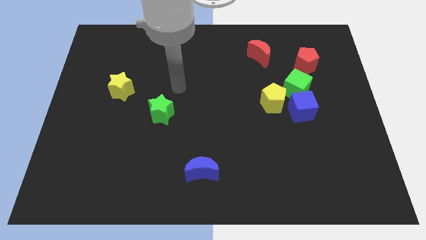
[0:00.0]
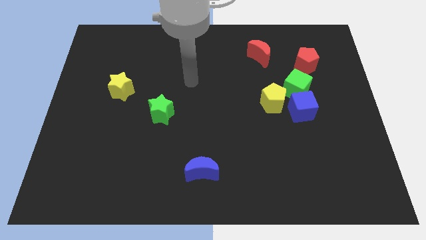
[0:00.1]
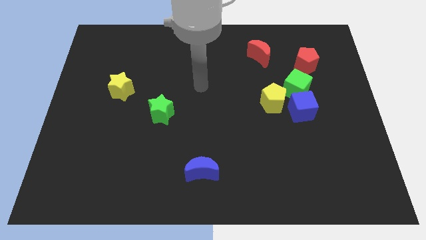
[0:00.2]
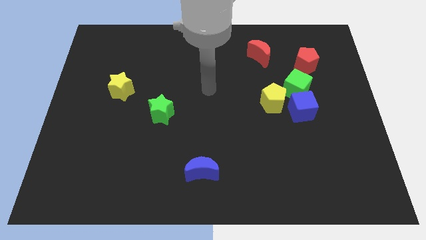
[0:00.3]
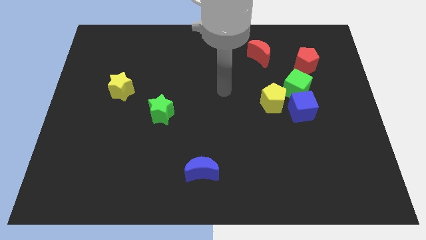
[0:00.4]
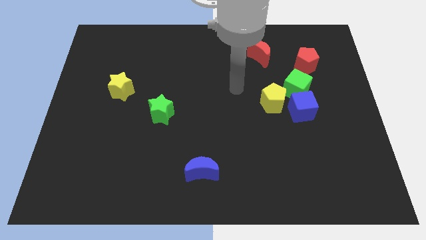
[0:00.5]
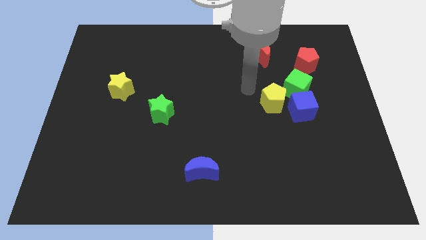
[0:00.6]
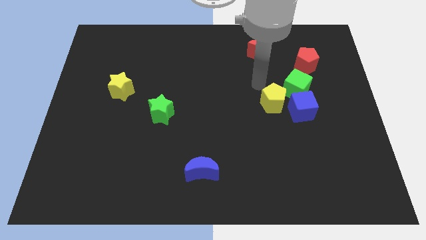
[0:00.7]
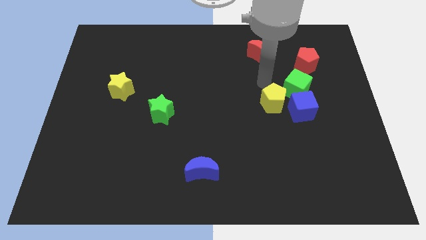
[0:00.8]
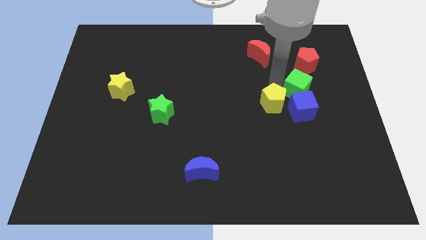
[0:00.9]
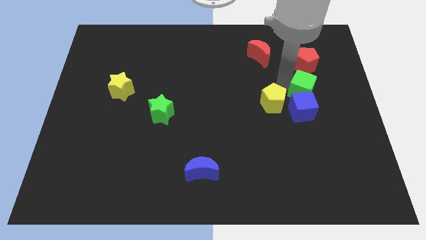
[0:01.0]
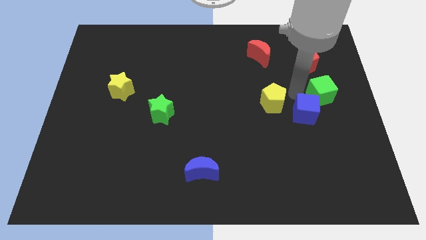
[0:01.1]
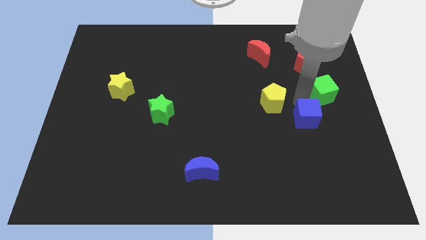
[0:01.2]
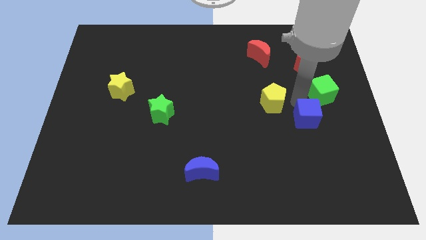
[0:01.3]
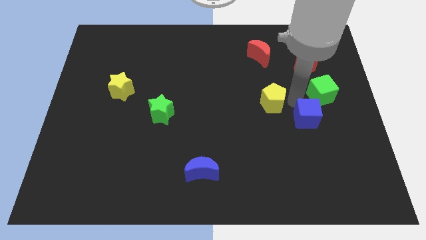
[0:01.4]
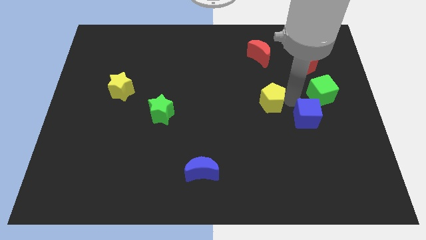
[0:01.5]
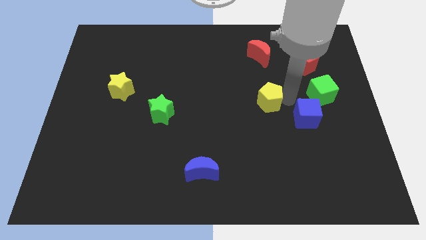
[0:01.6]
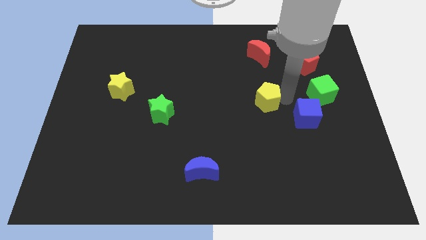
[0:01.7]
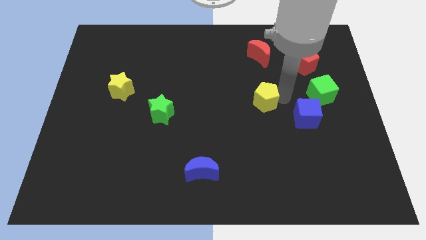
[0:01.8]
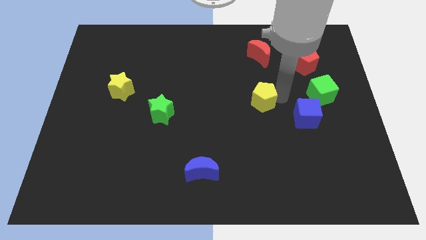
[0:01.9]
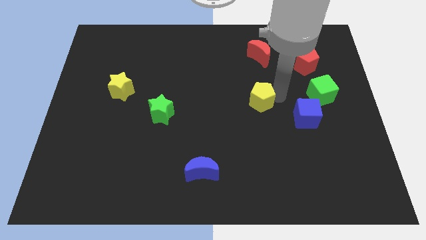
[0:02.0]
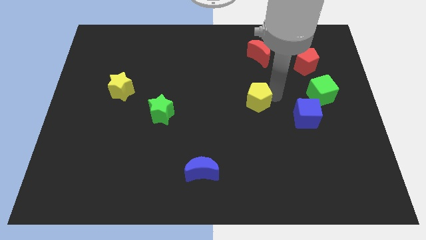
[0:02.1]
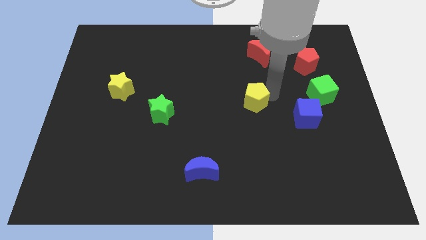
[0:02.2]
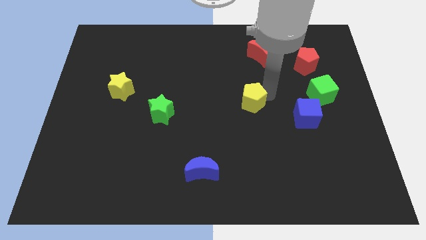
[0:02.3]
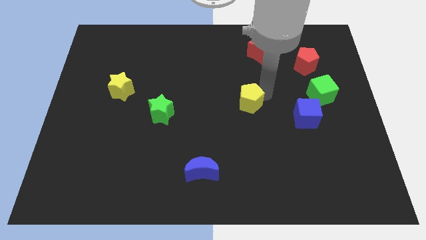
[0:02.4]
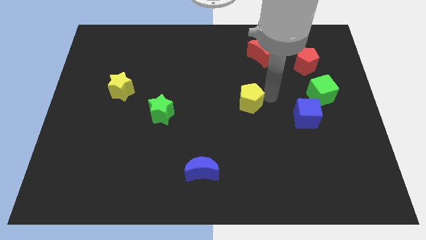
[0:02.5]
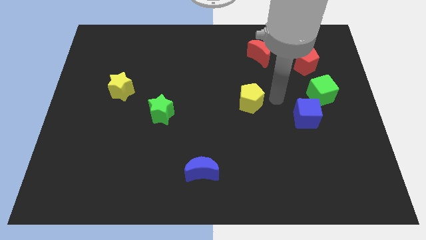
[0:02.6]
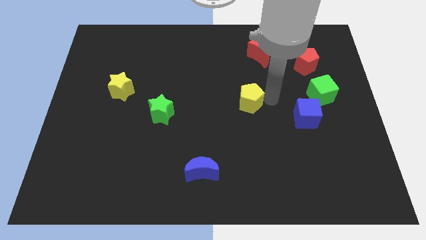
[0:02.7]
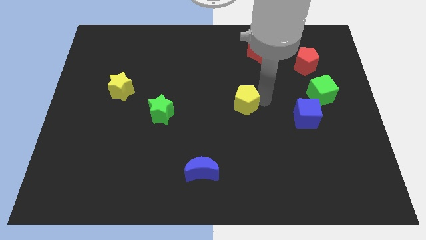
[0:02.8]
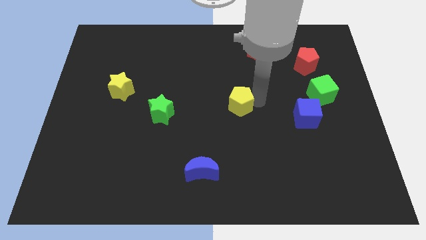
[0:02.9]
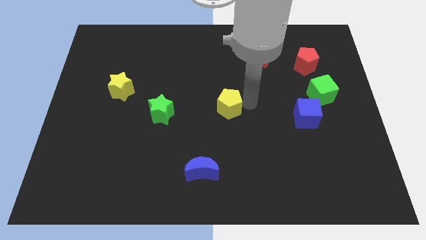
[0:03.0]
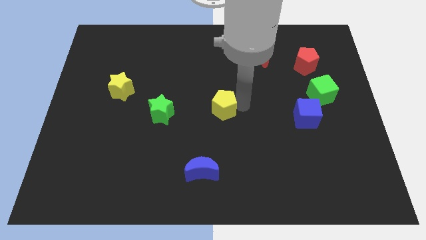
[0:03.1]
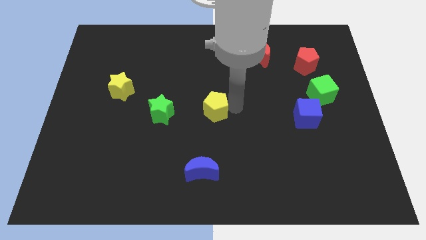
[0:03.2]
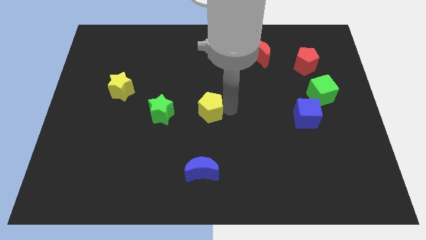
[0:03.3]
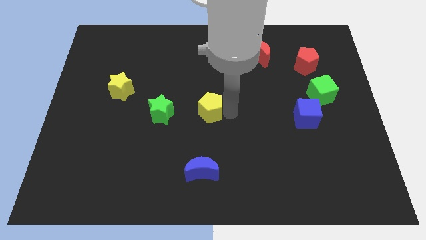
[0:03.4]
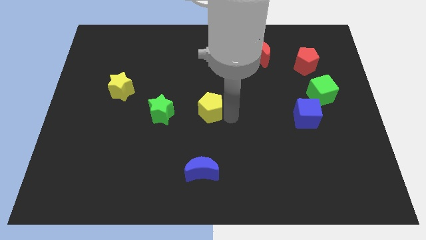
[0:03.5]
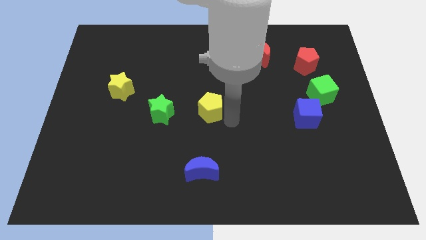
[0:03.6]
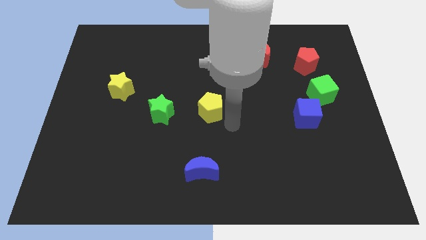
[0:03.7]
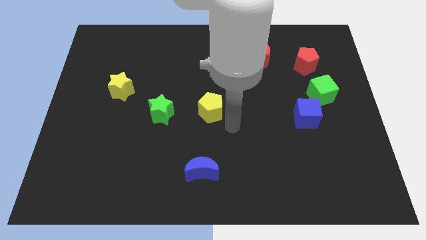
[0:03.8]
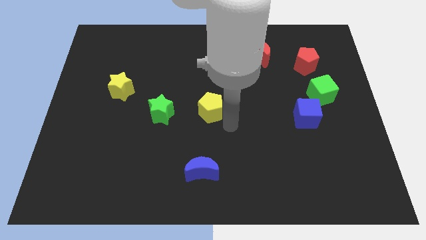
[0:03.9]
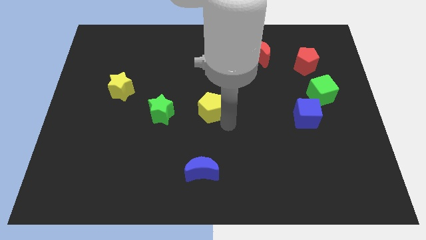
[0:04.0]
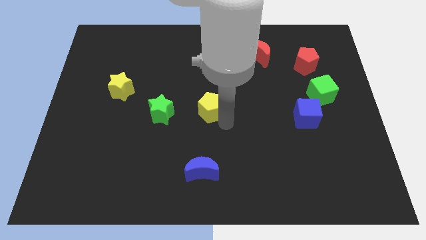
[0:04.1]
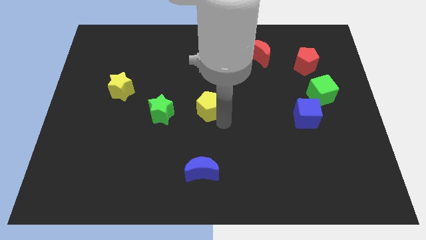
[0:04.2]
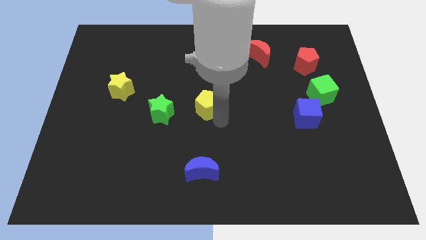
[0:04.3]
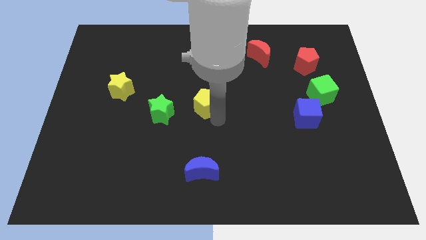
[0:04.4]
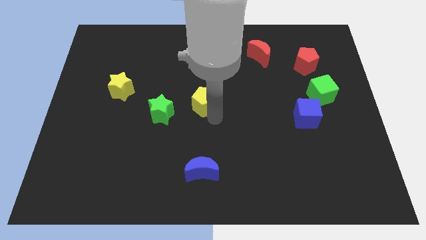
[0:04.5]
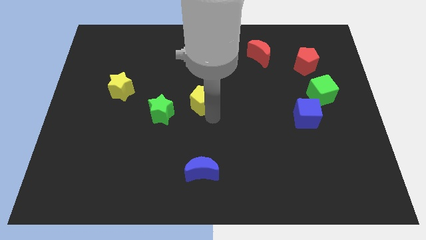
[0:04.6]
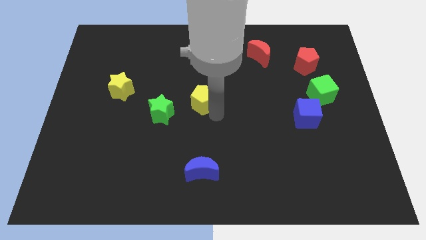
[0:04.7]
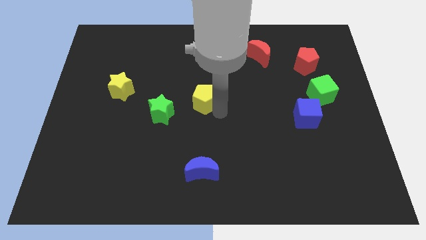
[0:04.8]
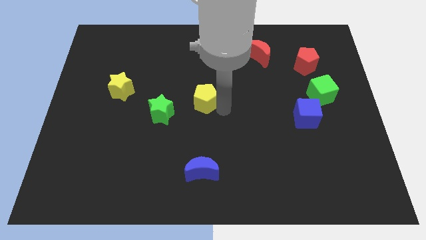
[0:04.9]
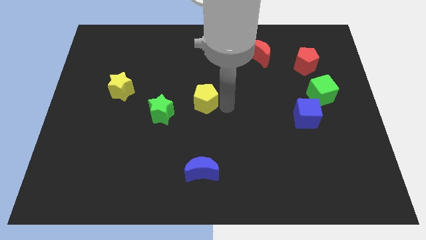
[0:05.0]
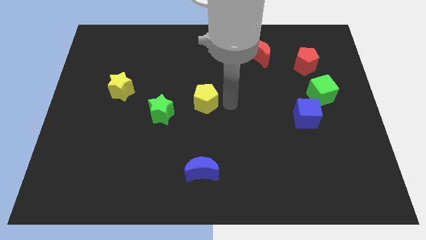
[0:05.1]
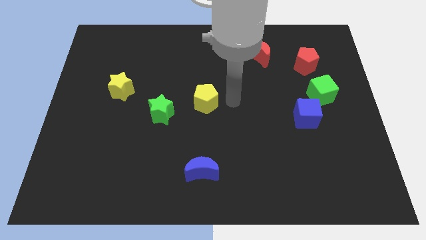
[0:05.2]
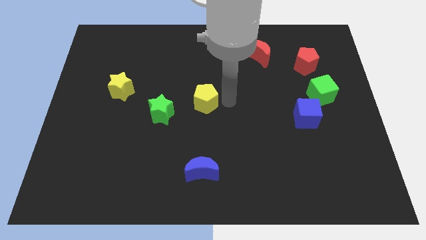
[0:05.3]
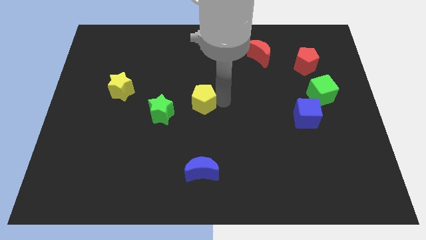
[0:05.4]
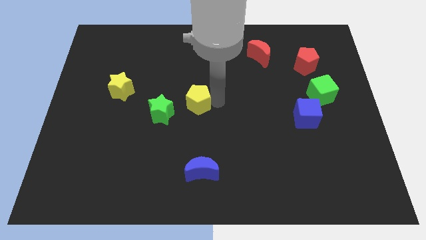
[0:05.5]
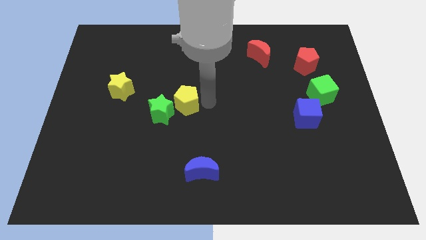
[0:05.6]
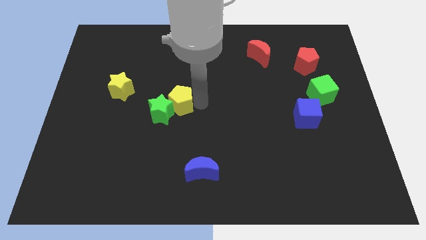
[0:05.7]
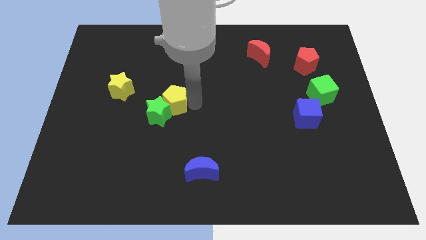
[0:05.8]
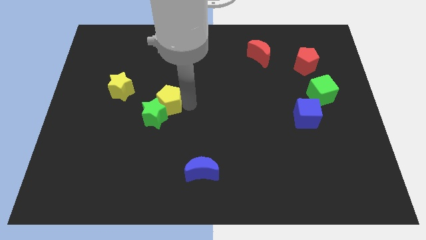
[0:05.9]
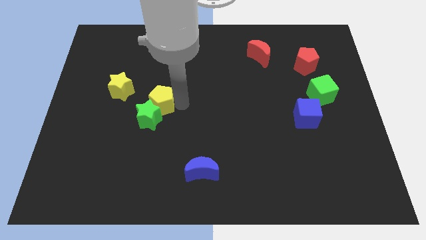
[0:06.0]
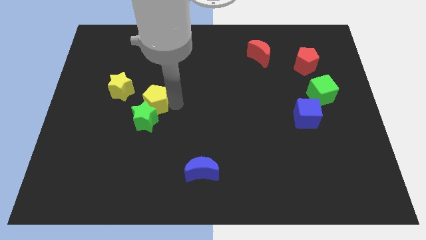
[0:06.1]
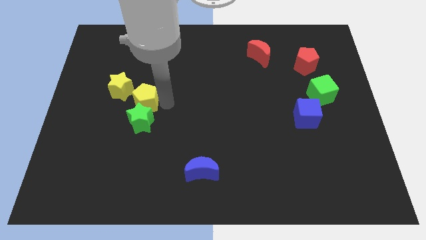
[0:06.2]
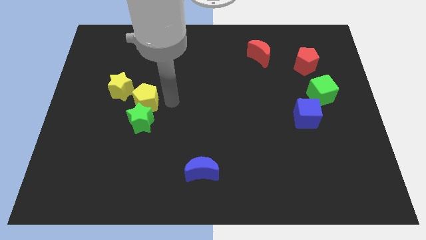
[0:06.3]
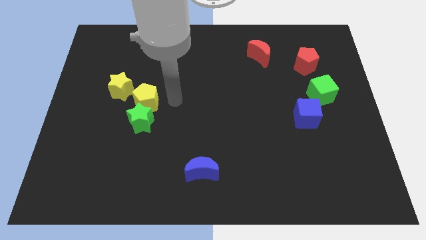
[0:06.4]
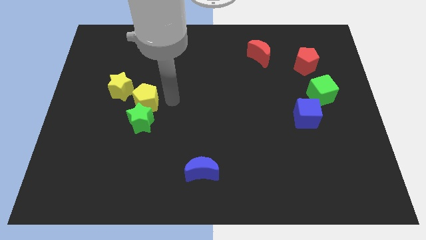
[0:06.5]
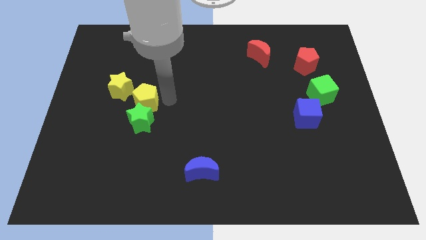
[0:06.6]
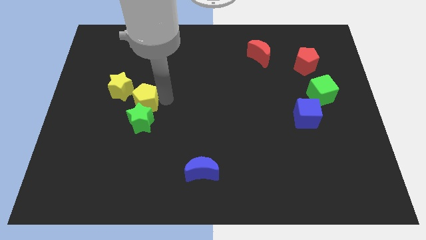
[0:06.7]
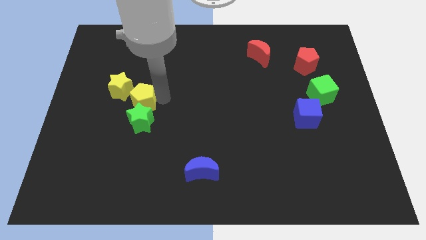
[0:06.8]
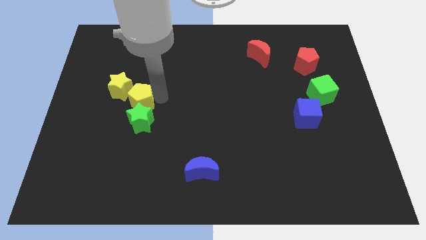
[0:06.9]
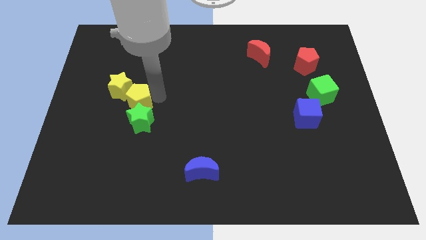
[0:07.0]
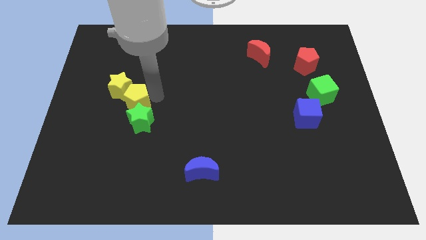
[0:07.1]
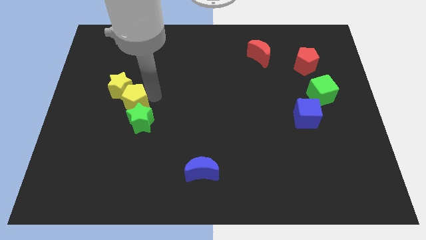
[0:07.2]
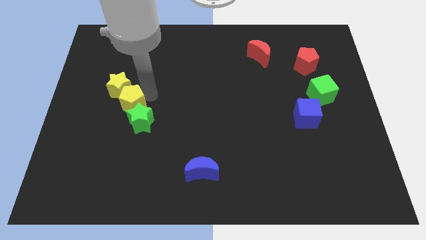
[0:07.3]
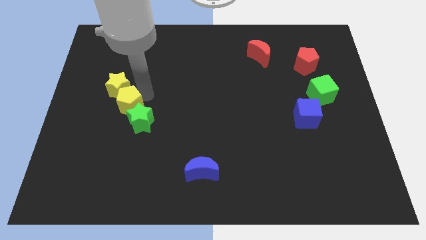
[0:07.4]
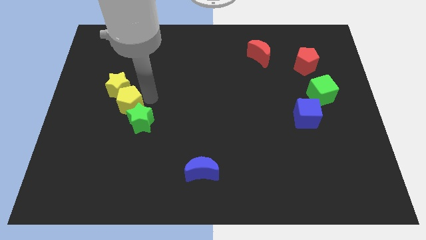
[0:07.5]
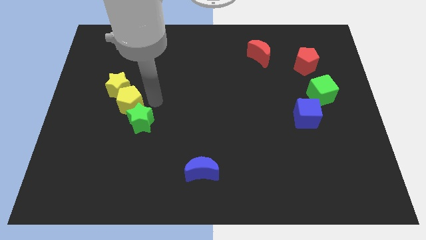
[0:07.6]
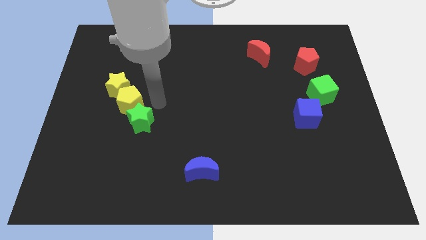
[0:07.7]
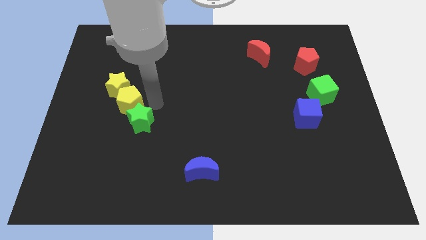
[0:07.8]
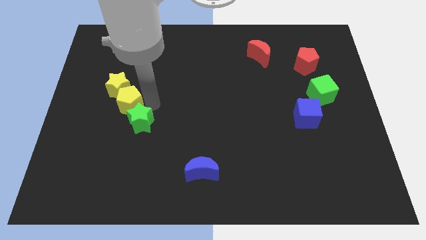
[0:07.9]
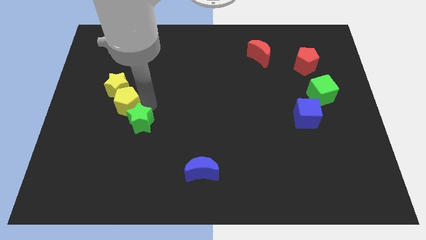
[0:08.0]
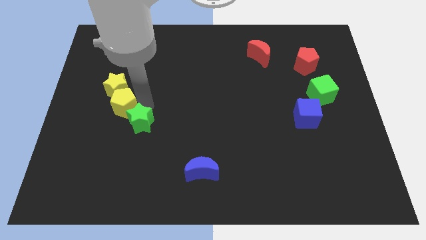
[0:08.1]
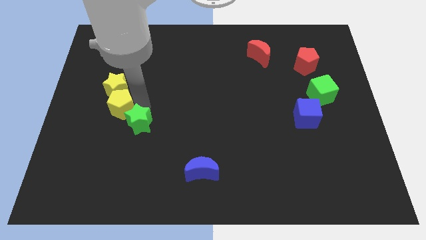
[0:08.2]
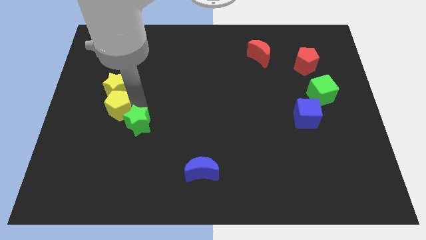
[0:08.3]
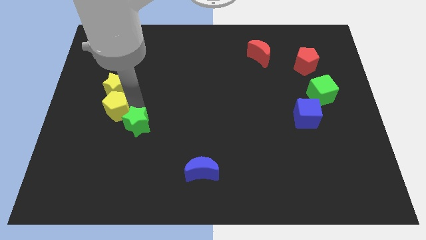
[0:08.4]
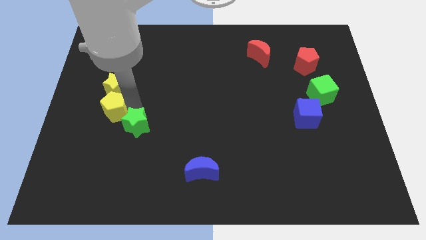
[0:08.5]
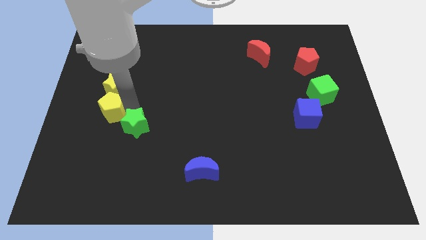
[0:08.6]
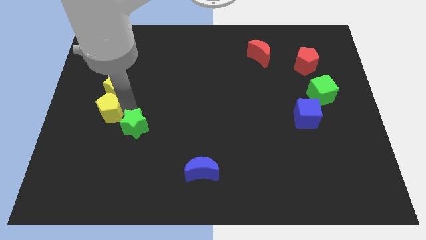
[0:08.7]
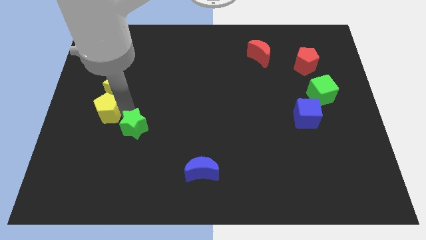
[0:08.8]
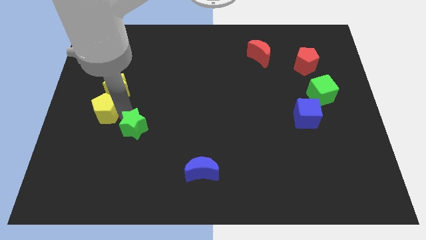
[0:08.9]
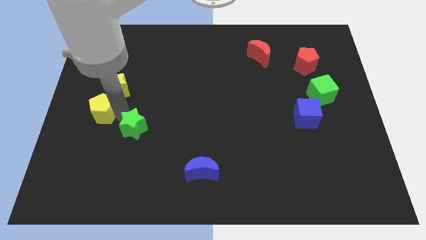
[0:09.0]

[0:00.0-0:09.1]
push the yellow pentagon to the center left
